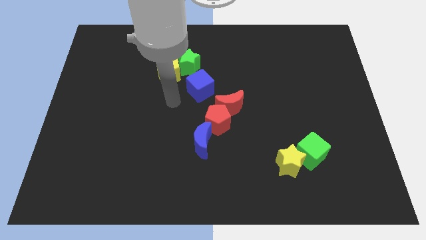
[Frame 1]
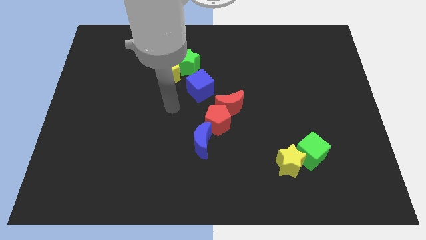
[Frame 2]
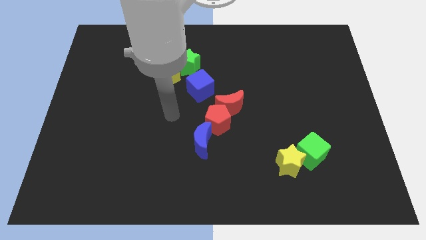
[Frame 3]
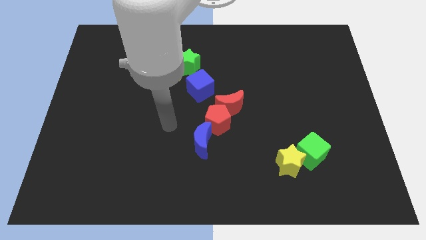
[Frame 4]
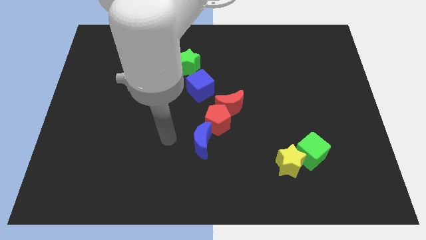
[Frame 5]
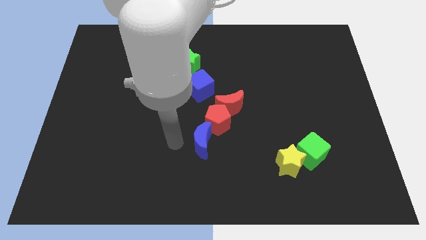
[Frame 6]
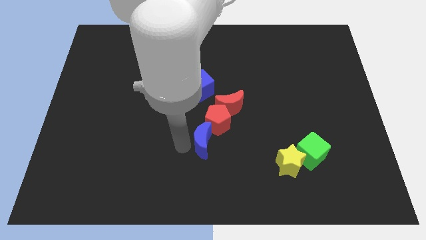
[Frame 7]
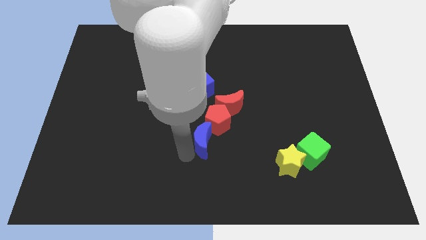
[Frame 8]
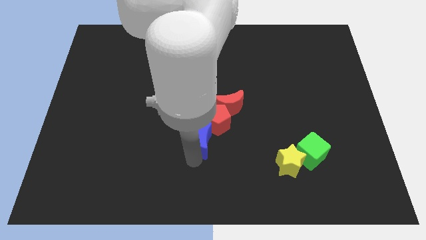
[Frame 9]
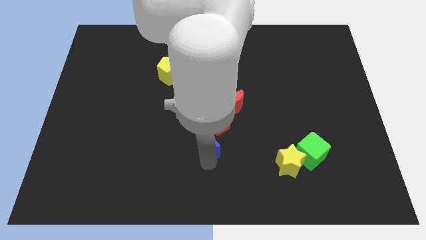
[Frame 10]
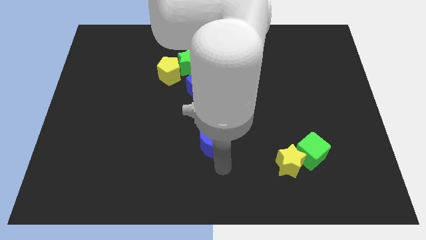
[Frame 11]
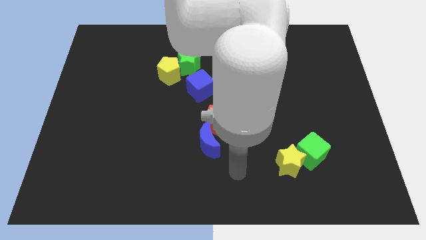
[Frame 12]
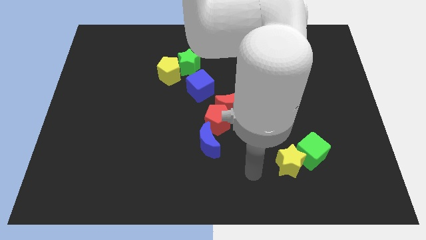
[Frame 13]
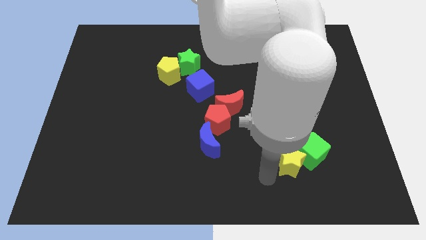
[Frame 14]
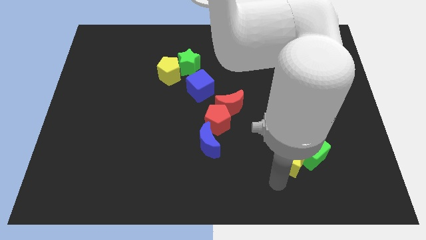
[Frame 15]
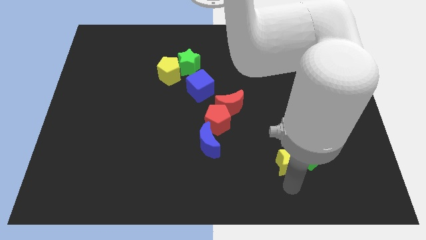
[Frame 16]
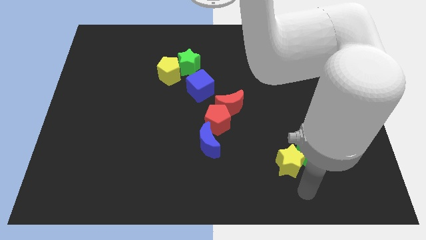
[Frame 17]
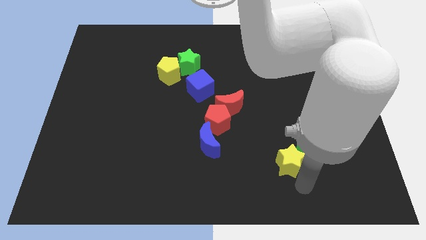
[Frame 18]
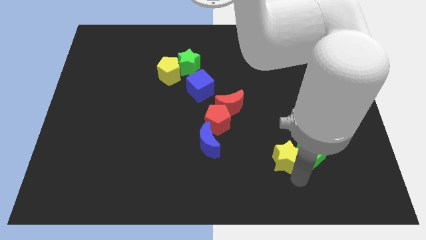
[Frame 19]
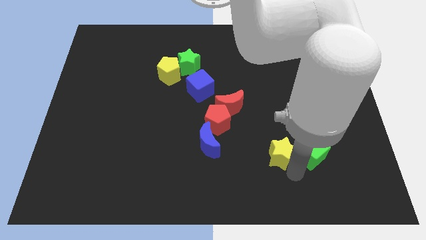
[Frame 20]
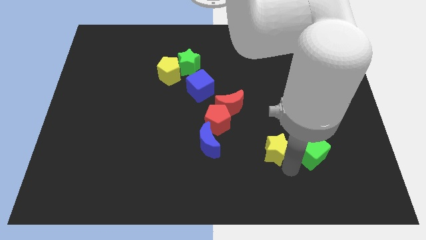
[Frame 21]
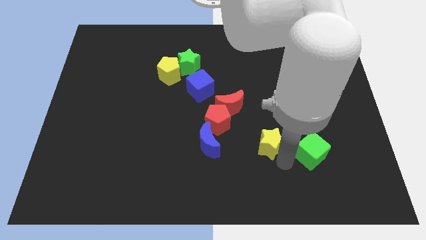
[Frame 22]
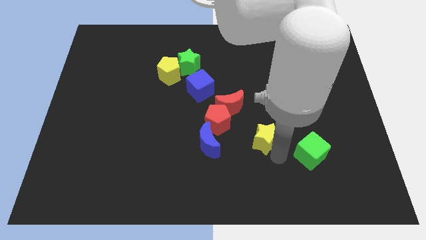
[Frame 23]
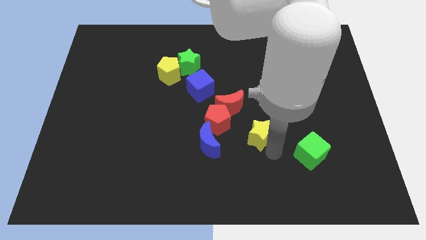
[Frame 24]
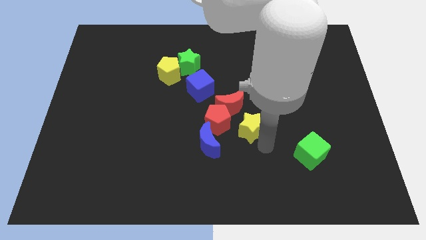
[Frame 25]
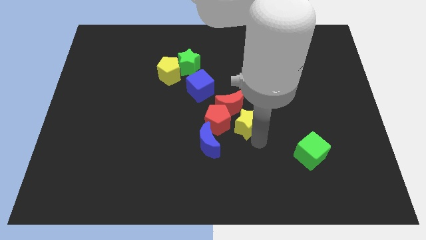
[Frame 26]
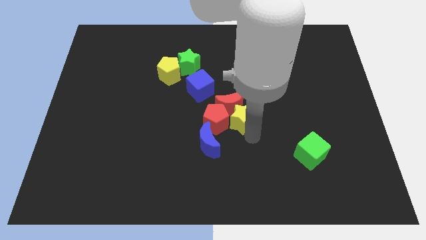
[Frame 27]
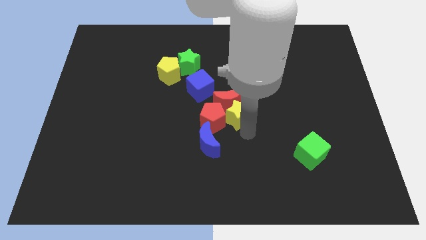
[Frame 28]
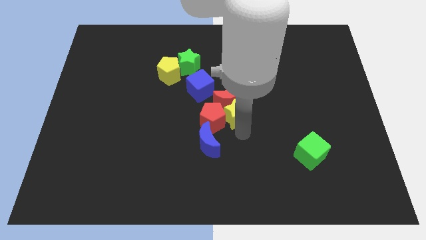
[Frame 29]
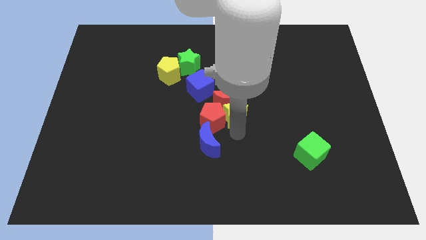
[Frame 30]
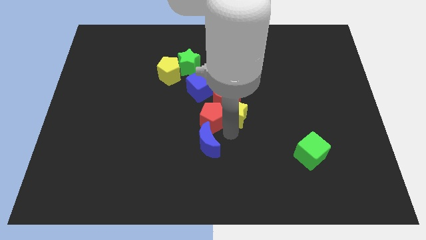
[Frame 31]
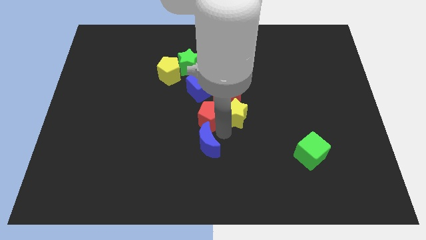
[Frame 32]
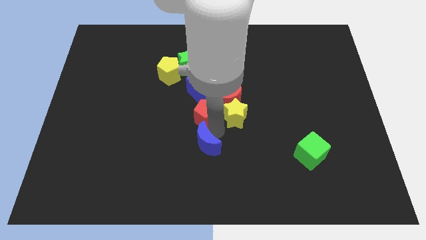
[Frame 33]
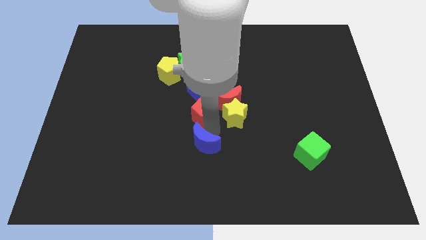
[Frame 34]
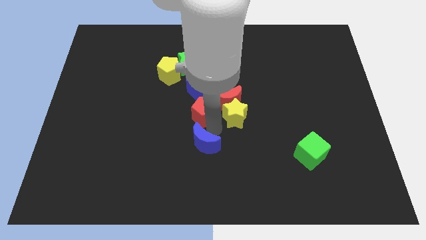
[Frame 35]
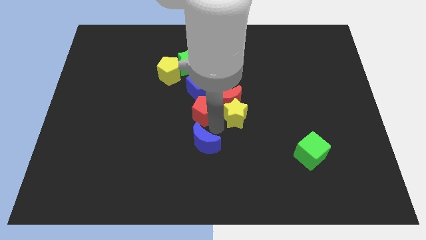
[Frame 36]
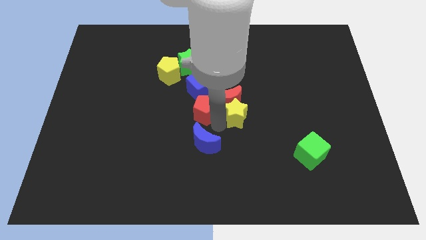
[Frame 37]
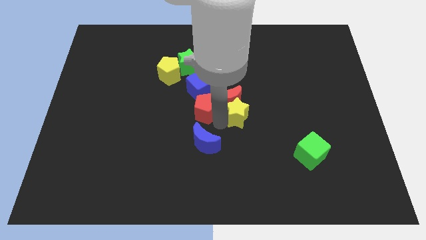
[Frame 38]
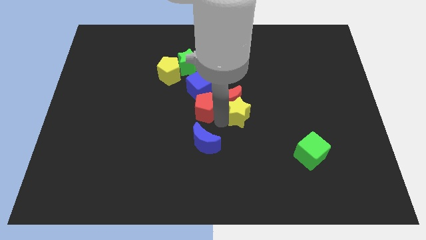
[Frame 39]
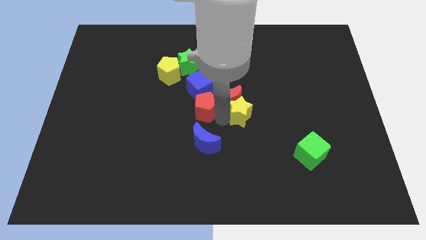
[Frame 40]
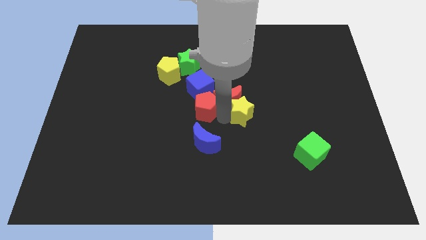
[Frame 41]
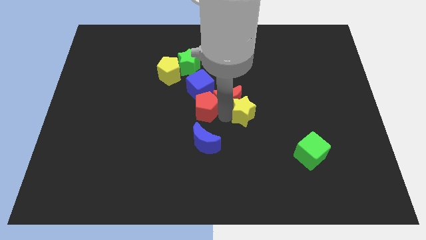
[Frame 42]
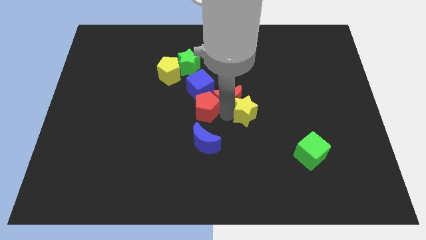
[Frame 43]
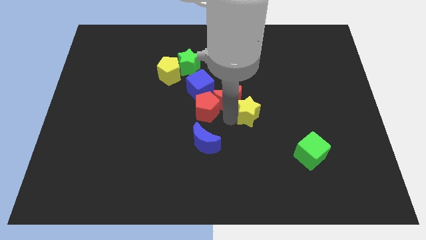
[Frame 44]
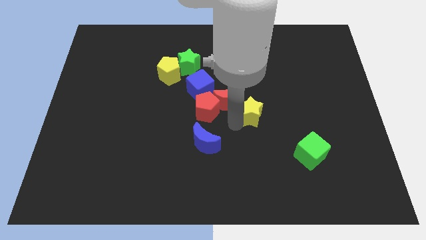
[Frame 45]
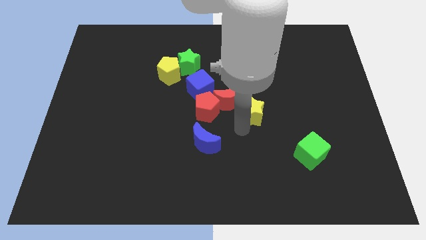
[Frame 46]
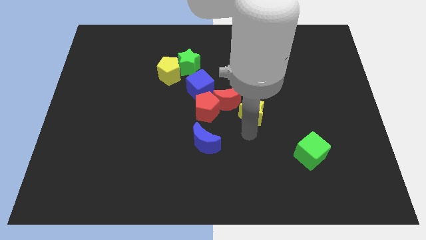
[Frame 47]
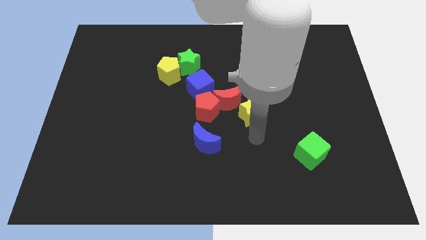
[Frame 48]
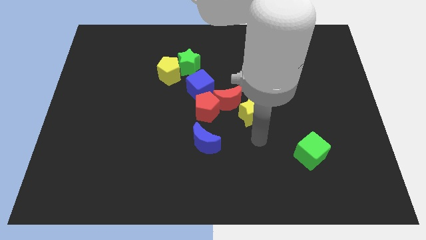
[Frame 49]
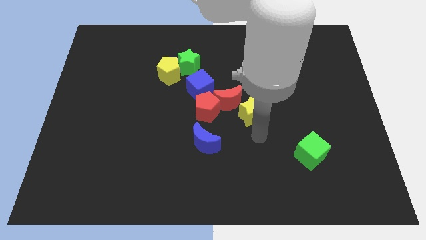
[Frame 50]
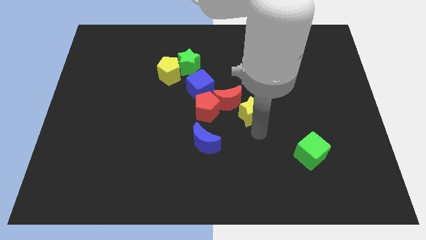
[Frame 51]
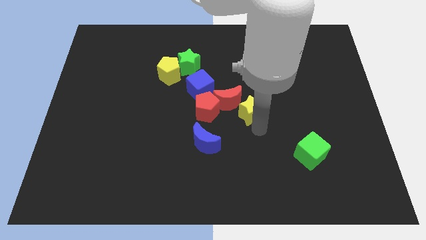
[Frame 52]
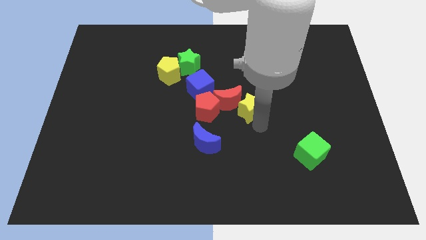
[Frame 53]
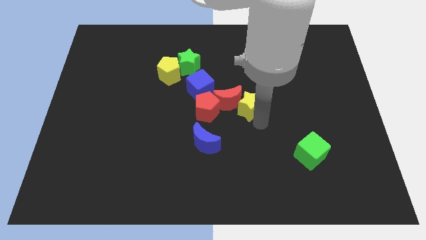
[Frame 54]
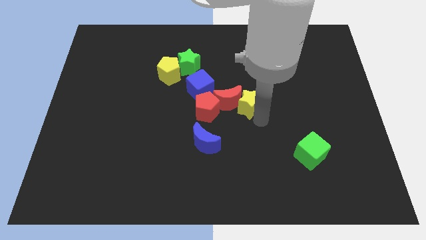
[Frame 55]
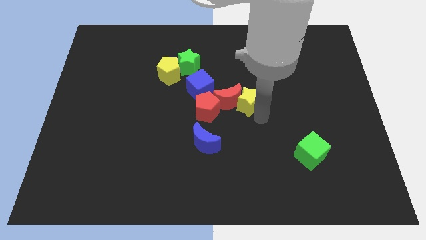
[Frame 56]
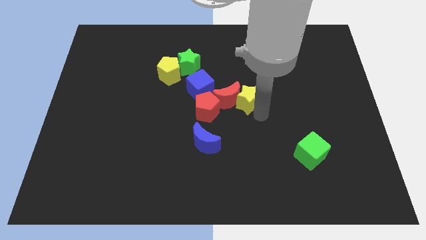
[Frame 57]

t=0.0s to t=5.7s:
move the yellow star to the right side of the blue cube

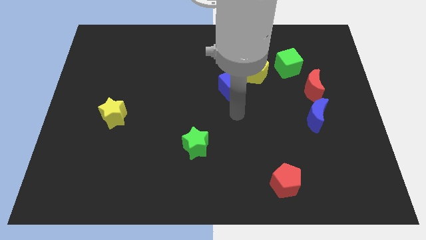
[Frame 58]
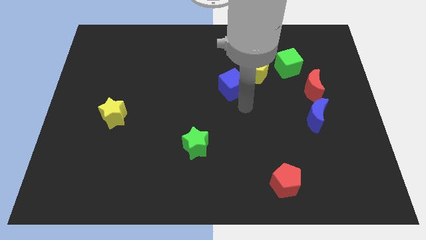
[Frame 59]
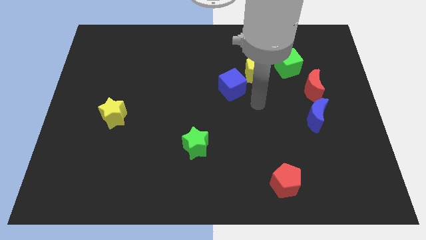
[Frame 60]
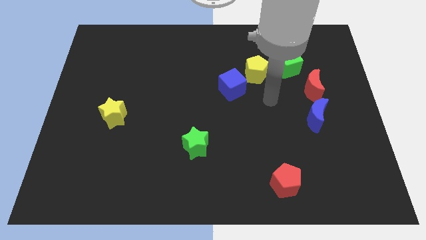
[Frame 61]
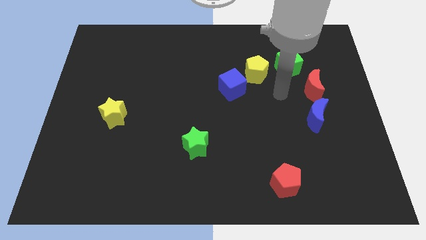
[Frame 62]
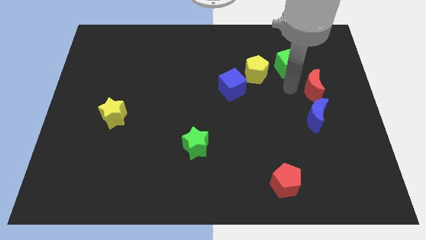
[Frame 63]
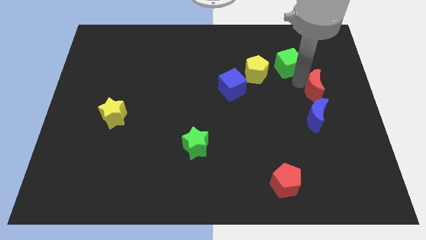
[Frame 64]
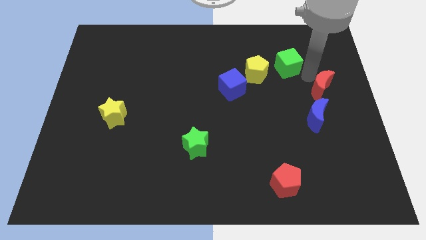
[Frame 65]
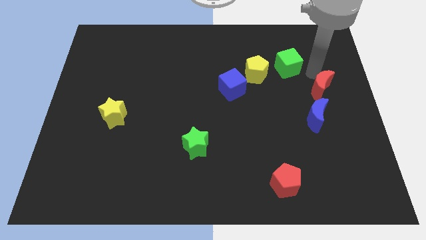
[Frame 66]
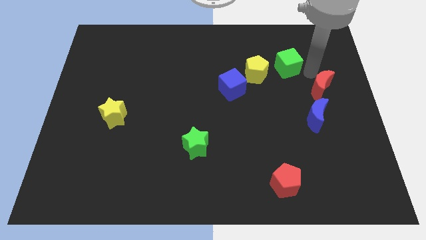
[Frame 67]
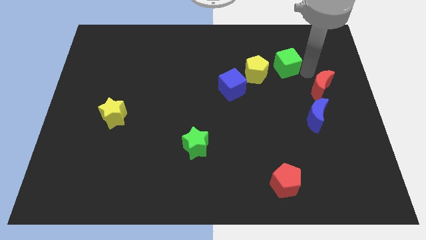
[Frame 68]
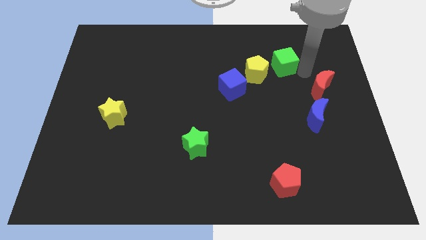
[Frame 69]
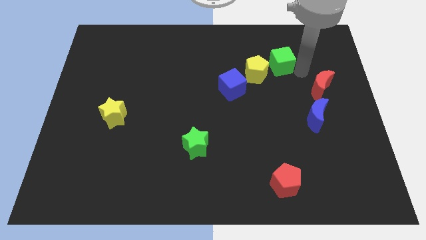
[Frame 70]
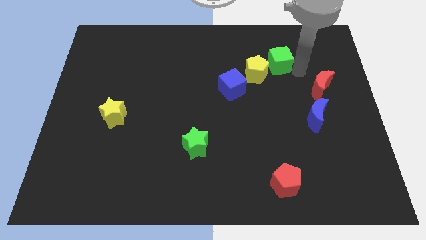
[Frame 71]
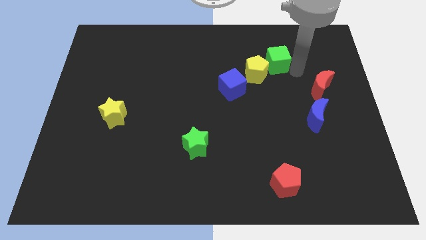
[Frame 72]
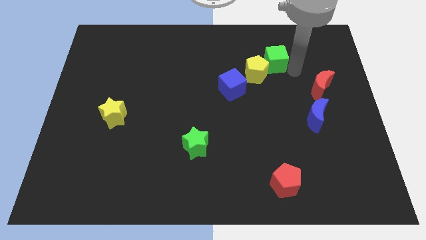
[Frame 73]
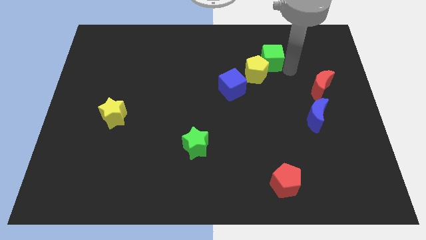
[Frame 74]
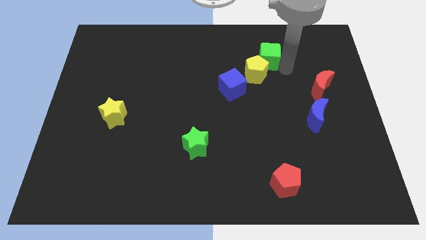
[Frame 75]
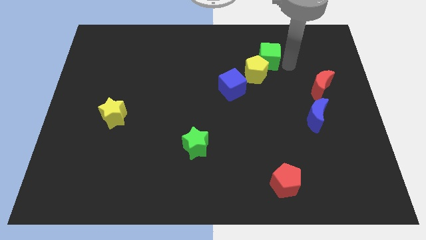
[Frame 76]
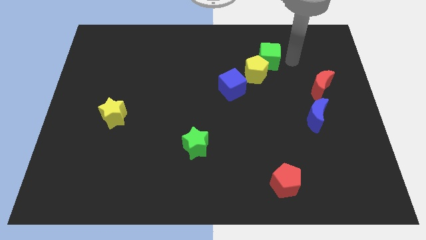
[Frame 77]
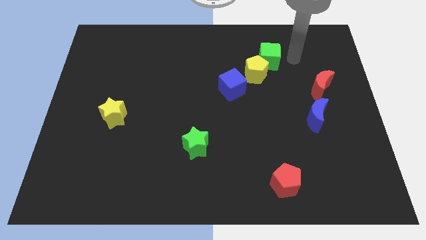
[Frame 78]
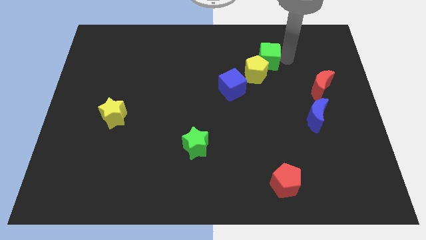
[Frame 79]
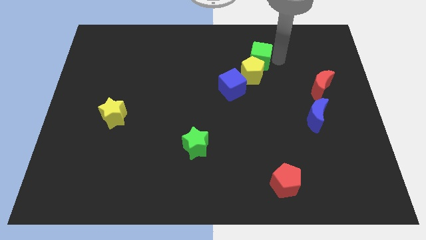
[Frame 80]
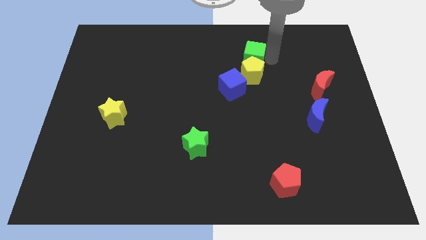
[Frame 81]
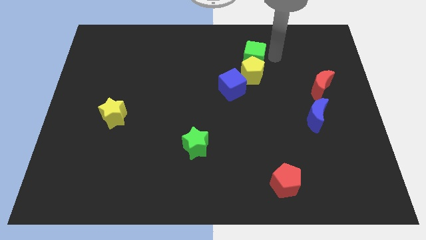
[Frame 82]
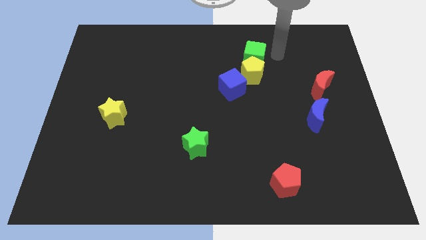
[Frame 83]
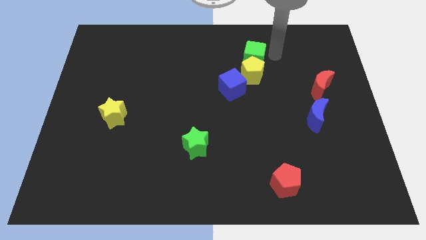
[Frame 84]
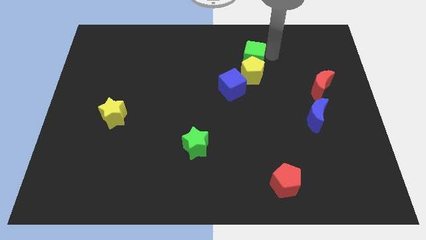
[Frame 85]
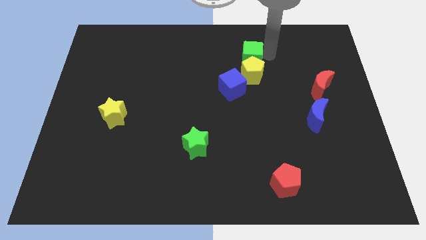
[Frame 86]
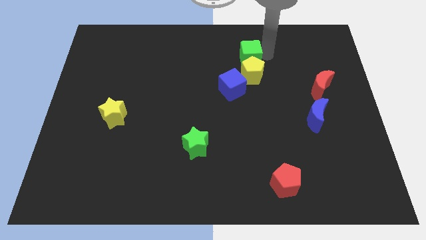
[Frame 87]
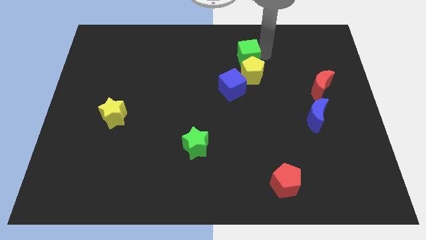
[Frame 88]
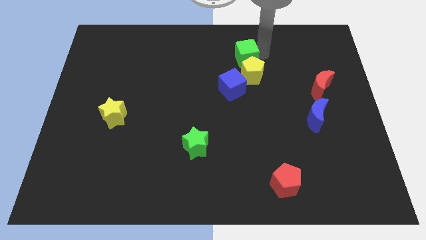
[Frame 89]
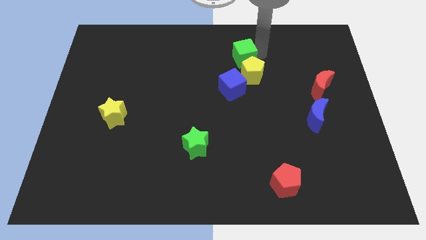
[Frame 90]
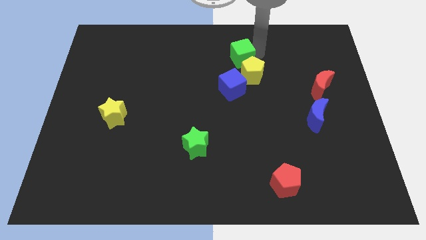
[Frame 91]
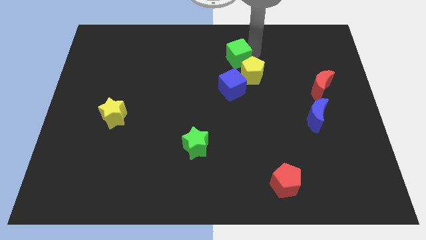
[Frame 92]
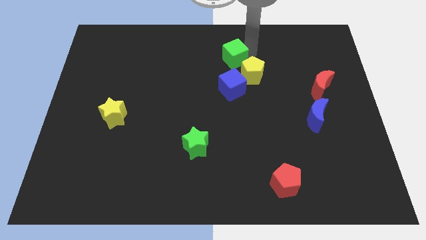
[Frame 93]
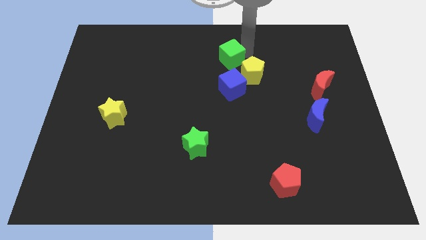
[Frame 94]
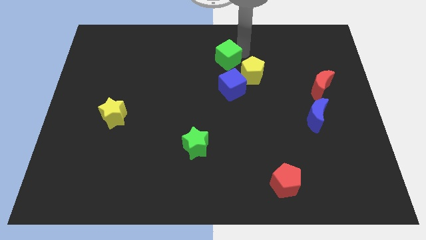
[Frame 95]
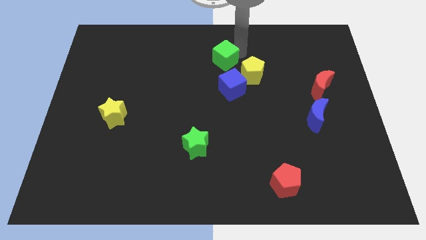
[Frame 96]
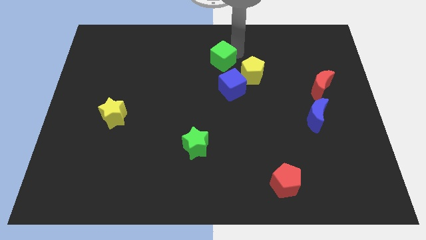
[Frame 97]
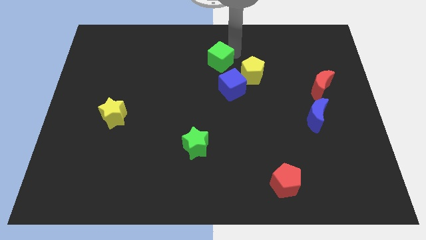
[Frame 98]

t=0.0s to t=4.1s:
slide the green cube just left of the yellow pentagon
